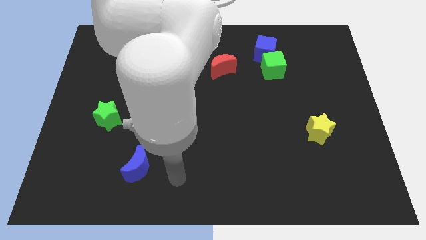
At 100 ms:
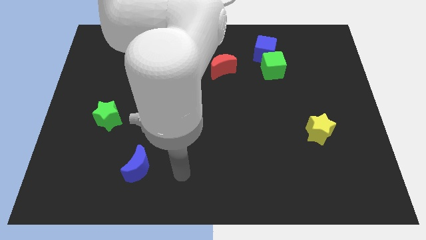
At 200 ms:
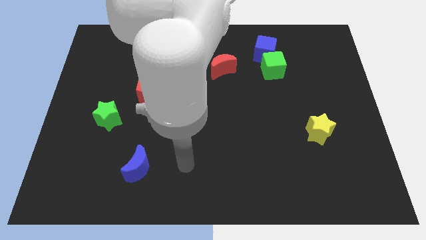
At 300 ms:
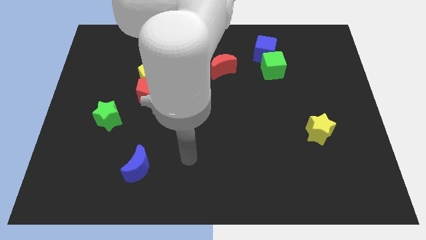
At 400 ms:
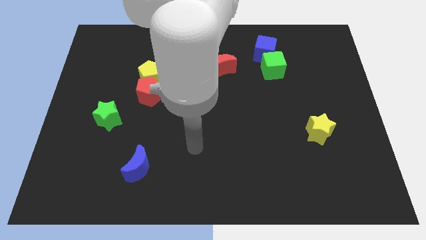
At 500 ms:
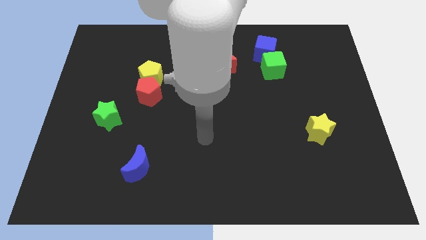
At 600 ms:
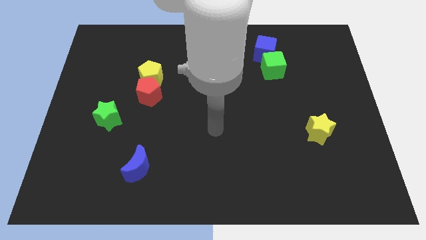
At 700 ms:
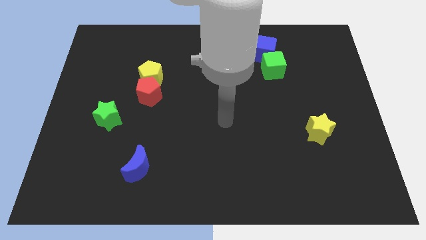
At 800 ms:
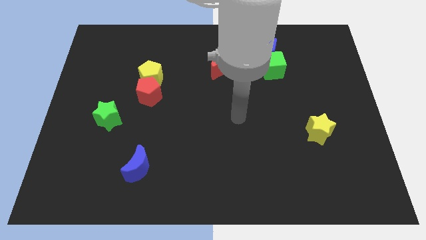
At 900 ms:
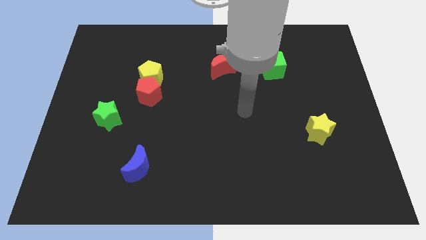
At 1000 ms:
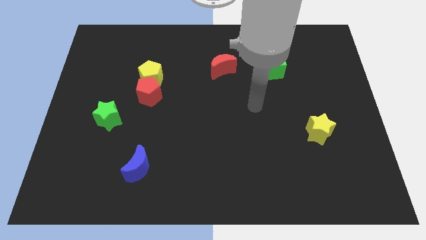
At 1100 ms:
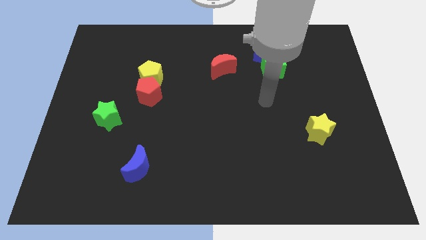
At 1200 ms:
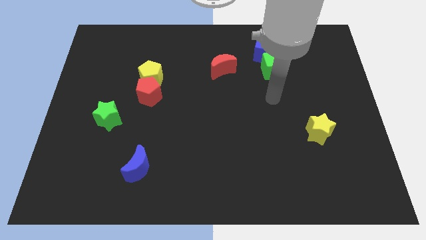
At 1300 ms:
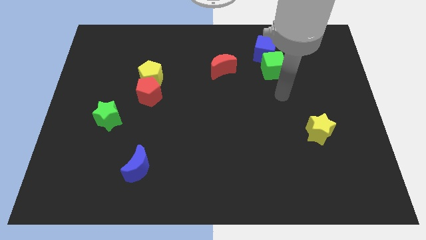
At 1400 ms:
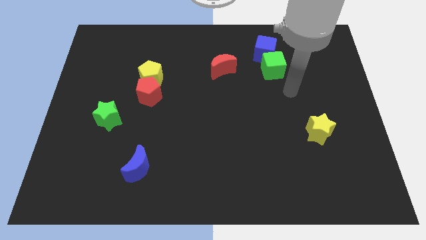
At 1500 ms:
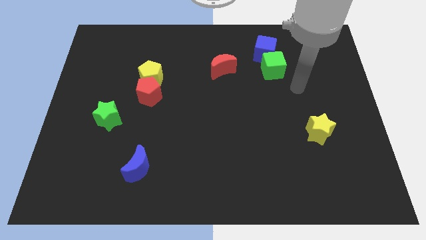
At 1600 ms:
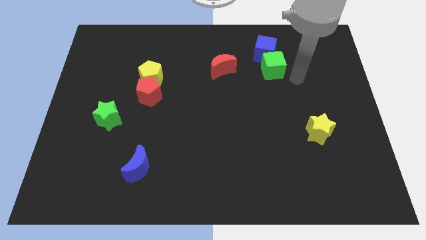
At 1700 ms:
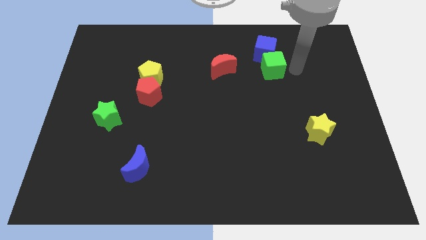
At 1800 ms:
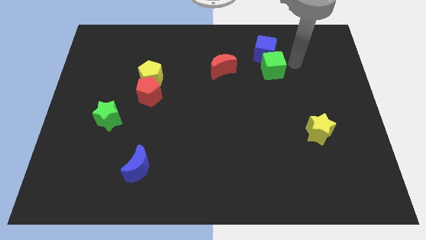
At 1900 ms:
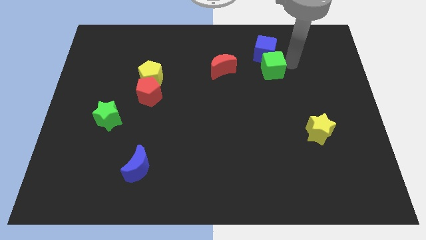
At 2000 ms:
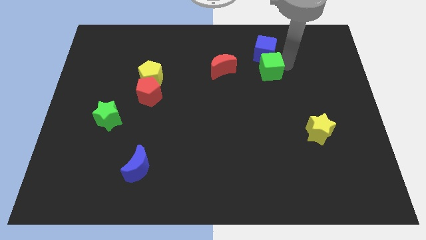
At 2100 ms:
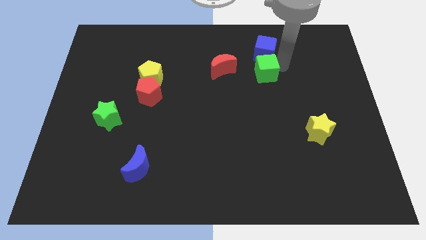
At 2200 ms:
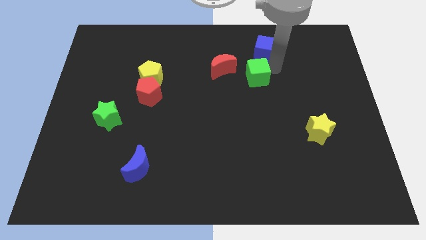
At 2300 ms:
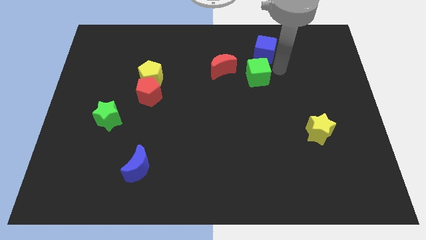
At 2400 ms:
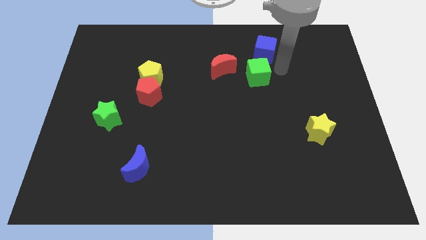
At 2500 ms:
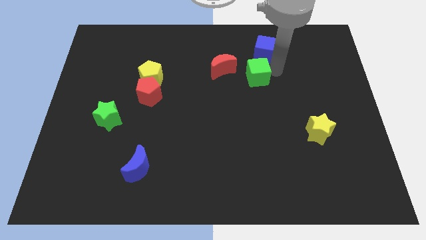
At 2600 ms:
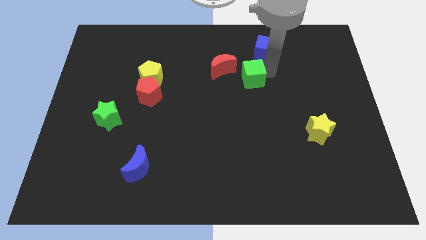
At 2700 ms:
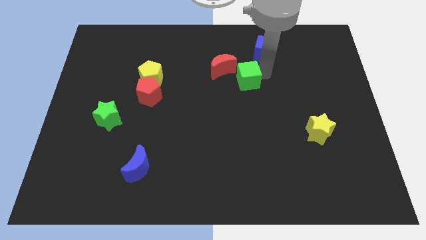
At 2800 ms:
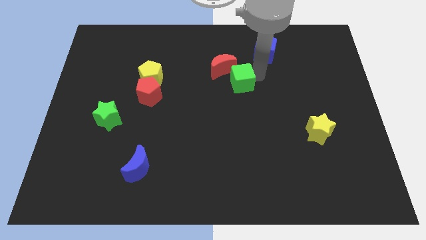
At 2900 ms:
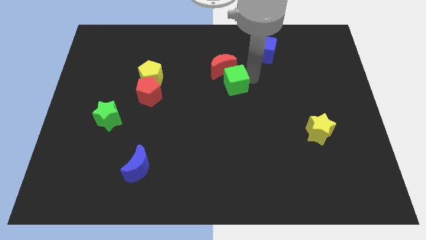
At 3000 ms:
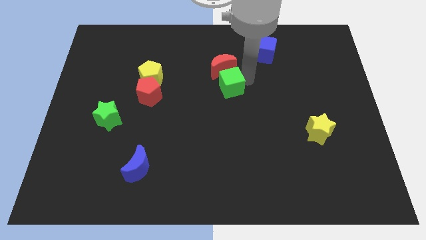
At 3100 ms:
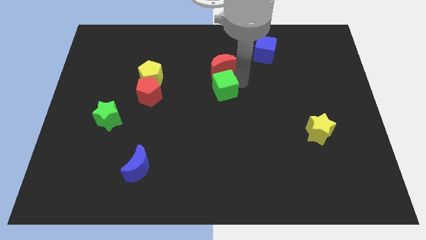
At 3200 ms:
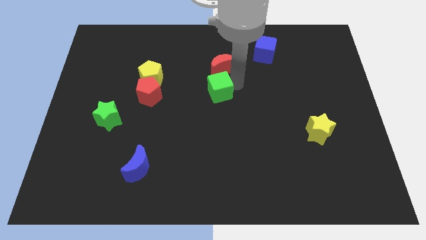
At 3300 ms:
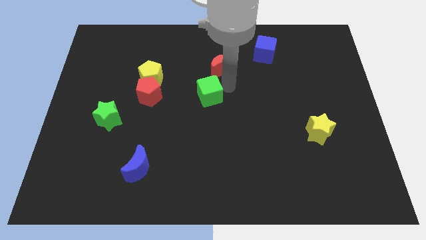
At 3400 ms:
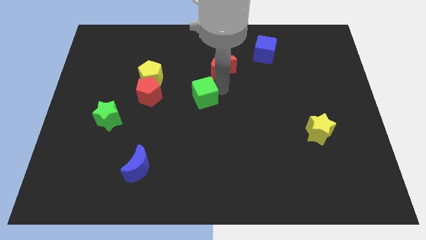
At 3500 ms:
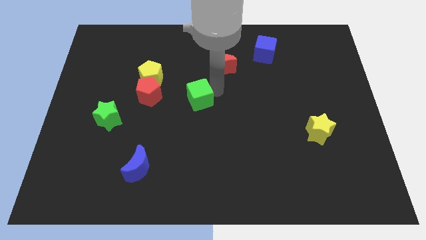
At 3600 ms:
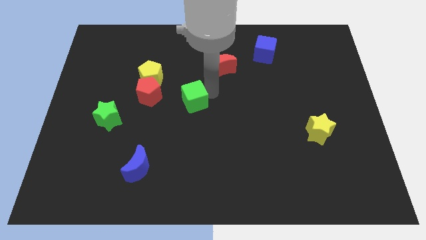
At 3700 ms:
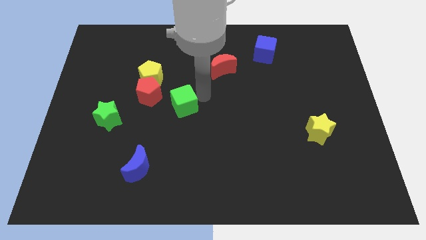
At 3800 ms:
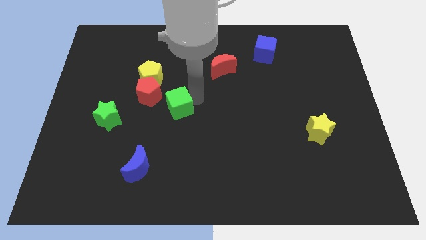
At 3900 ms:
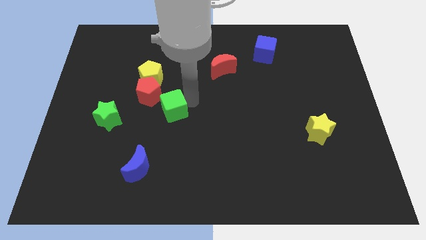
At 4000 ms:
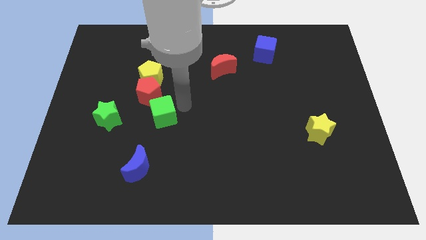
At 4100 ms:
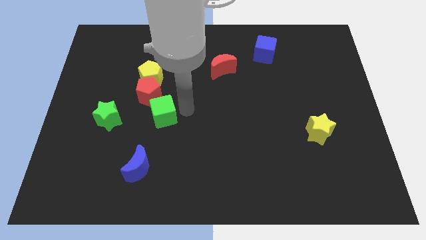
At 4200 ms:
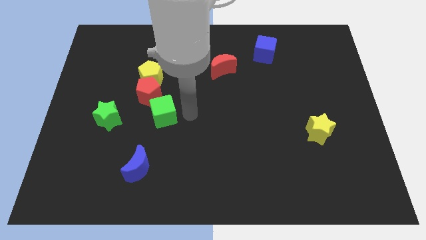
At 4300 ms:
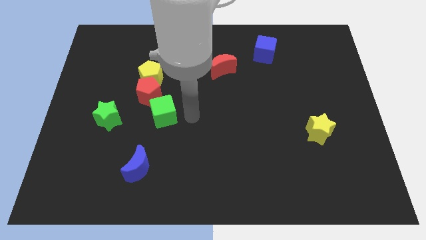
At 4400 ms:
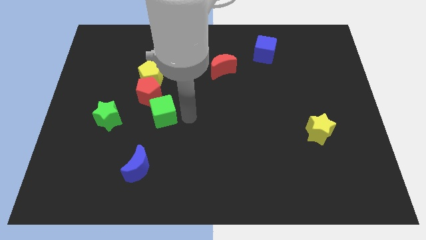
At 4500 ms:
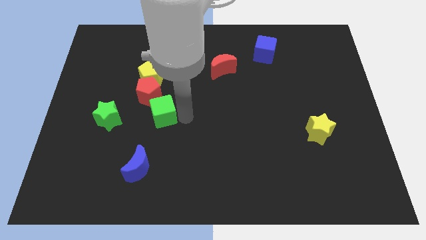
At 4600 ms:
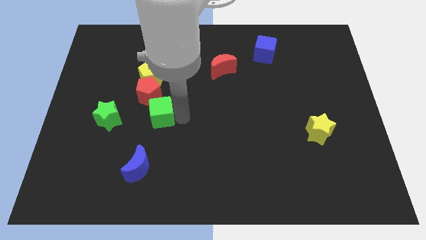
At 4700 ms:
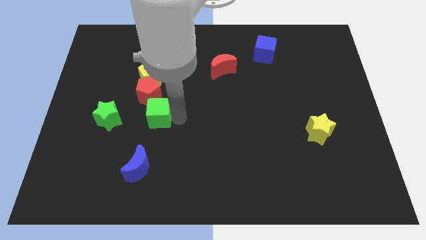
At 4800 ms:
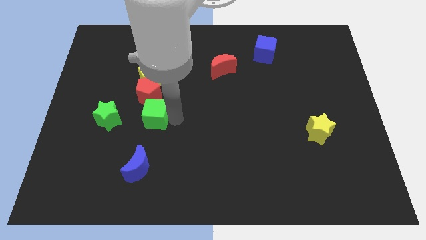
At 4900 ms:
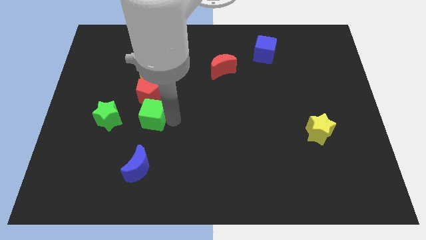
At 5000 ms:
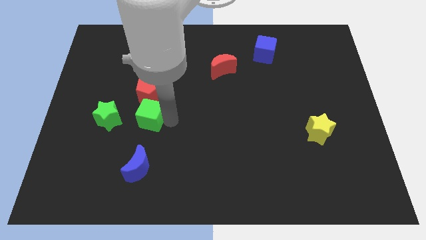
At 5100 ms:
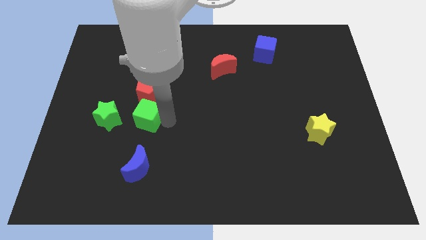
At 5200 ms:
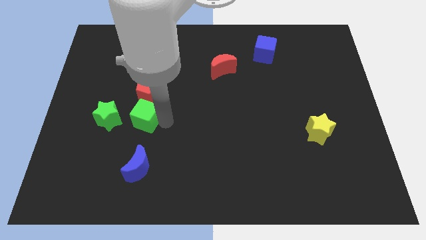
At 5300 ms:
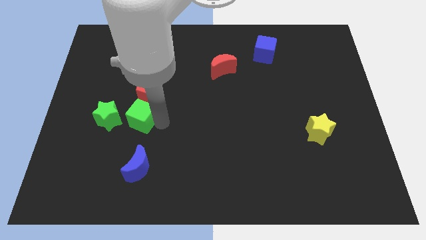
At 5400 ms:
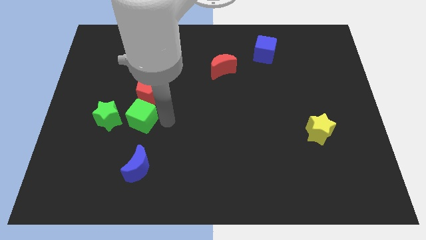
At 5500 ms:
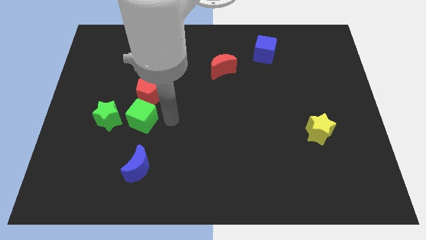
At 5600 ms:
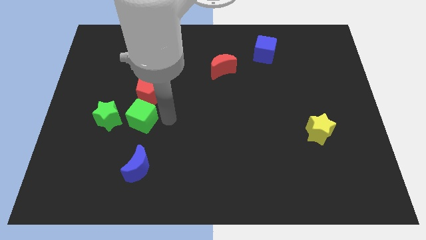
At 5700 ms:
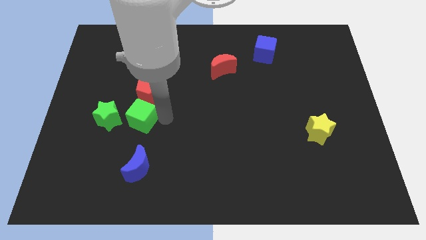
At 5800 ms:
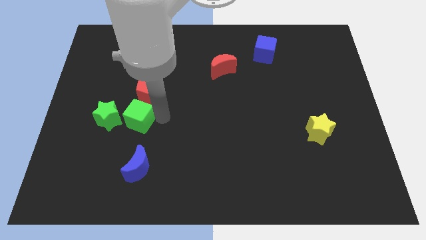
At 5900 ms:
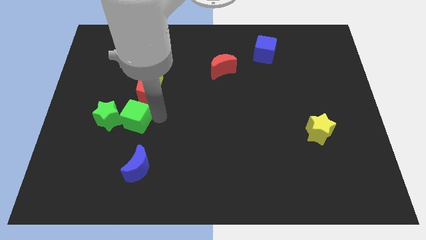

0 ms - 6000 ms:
move the green cube to the green star
